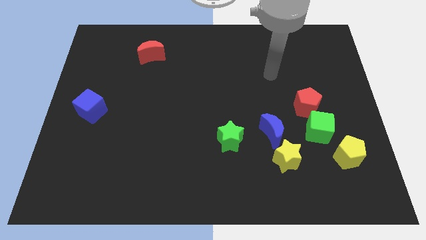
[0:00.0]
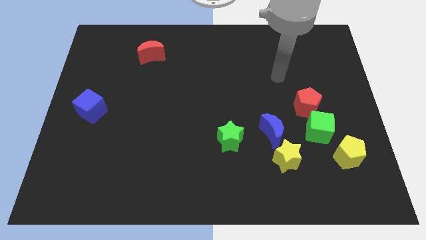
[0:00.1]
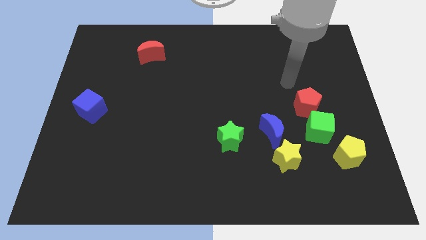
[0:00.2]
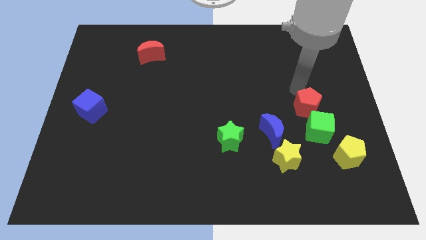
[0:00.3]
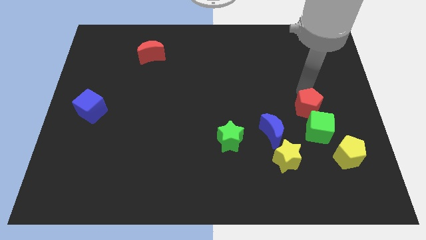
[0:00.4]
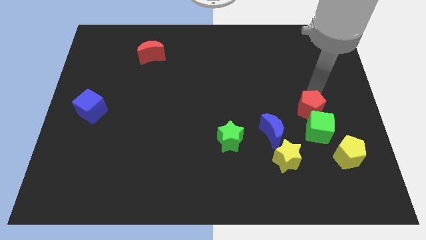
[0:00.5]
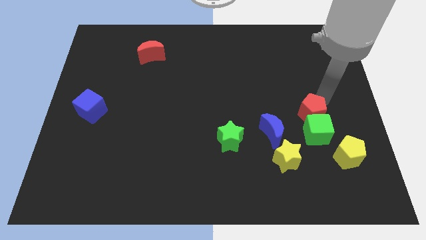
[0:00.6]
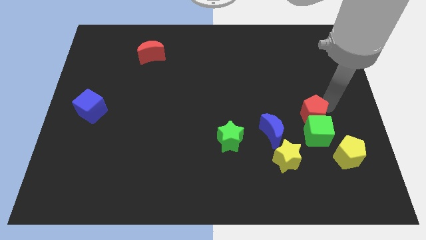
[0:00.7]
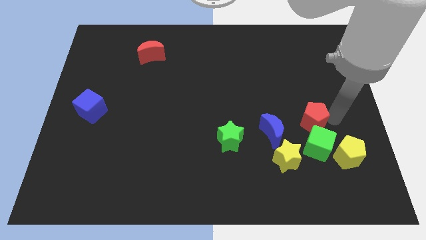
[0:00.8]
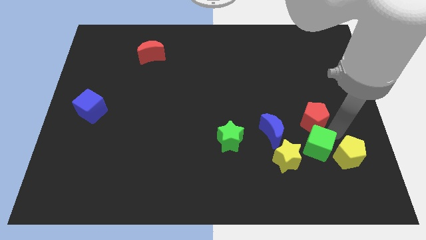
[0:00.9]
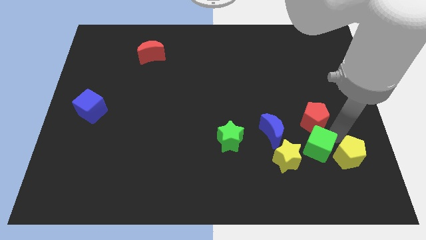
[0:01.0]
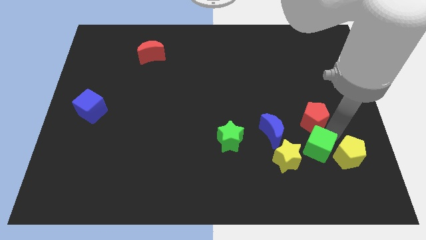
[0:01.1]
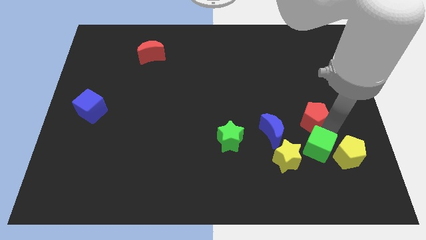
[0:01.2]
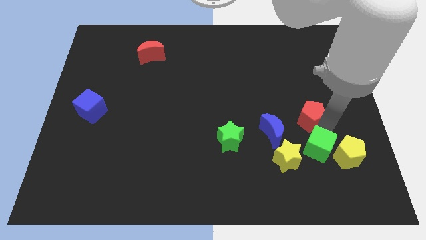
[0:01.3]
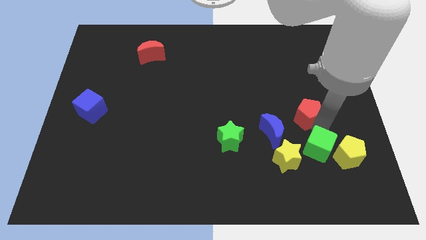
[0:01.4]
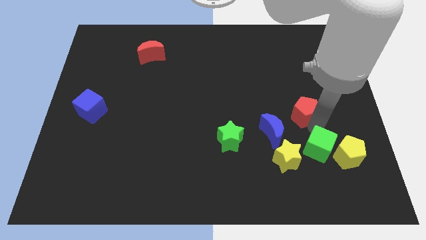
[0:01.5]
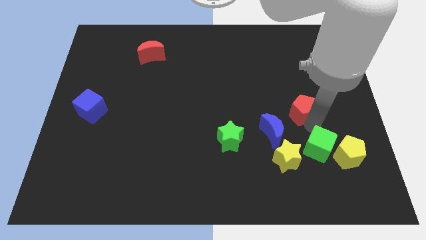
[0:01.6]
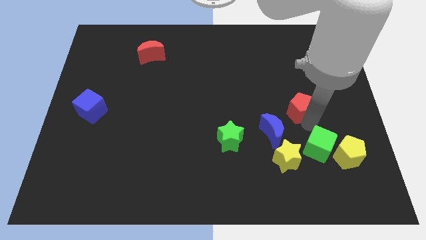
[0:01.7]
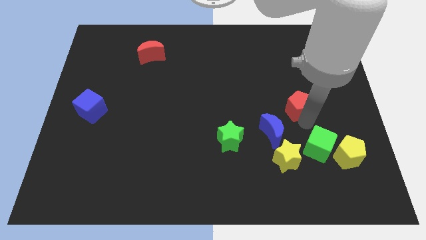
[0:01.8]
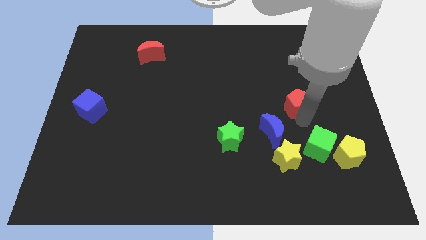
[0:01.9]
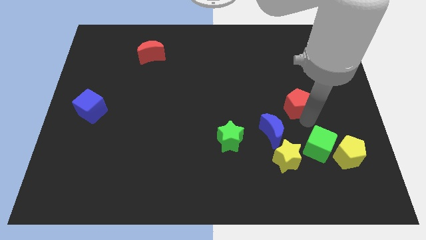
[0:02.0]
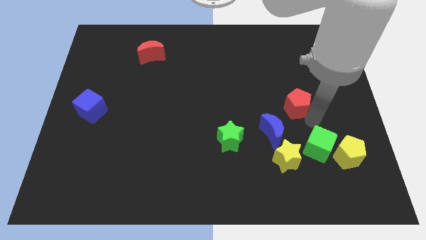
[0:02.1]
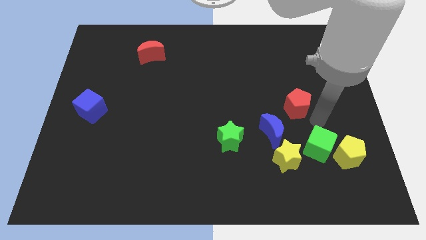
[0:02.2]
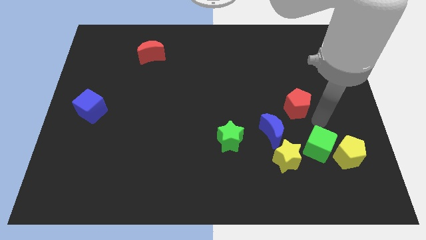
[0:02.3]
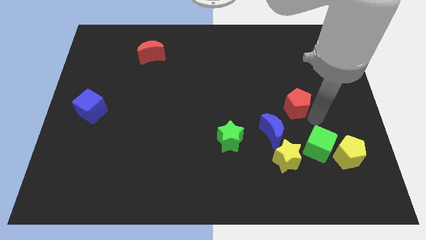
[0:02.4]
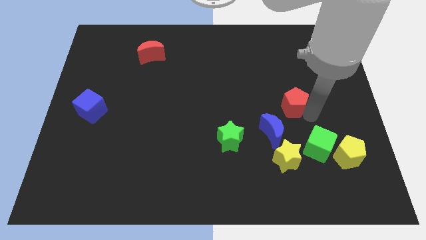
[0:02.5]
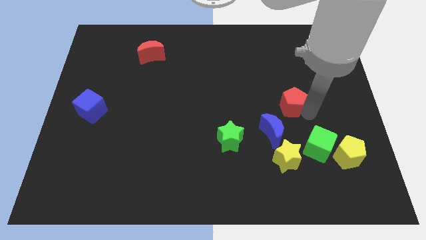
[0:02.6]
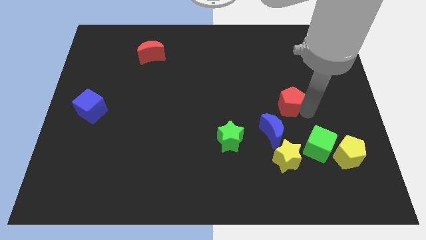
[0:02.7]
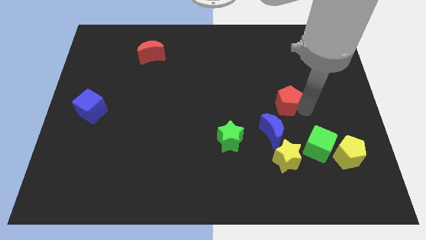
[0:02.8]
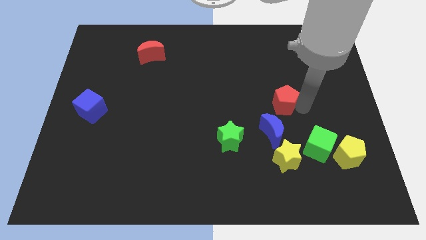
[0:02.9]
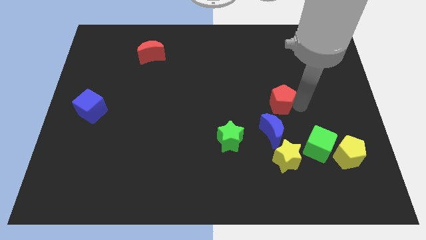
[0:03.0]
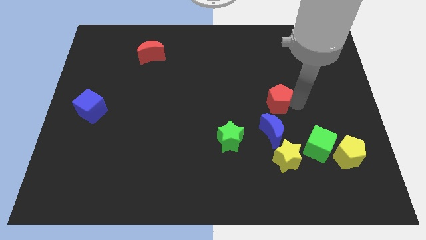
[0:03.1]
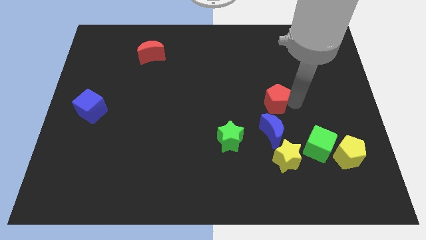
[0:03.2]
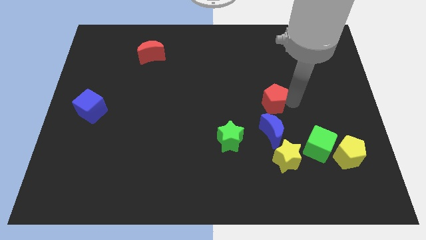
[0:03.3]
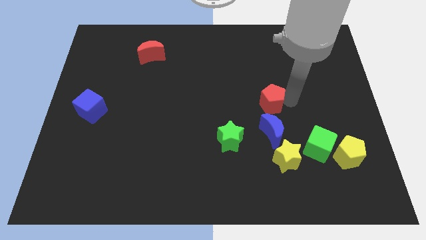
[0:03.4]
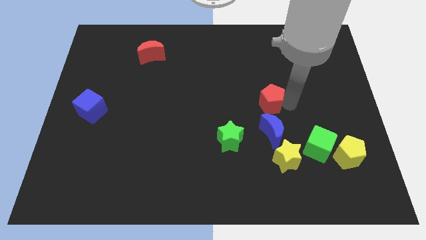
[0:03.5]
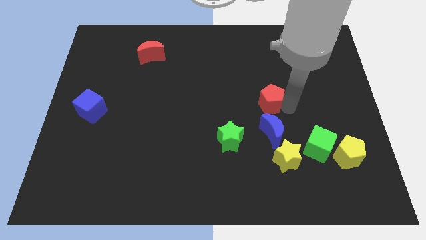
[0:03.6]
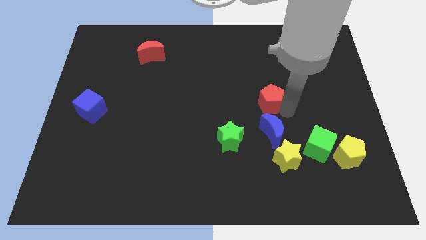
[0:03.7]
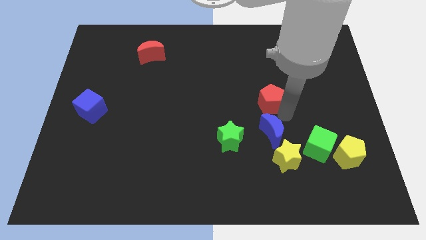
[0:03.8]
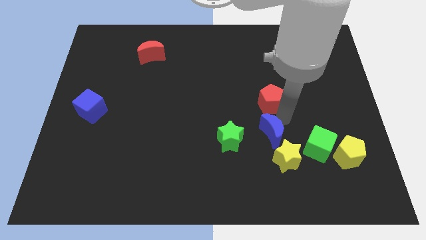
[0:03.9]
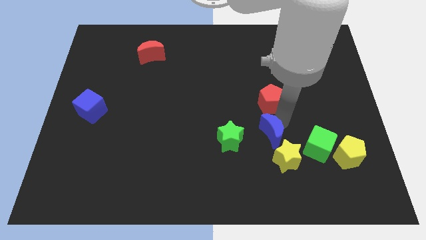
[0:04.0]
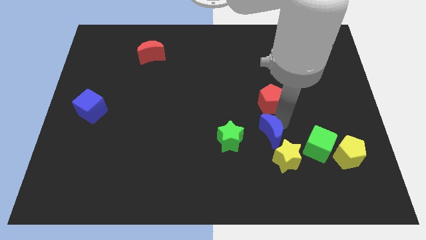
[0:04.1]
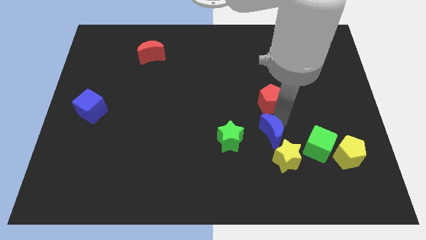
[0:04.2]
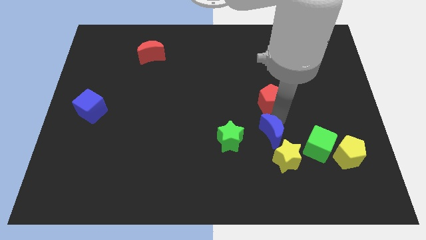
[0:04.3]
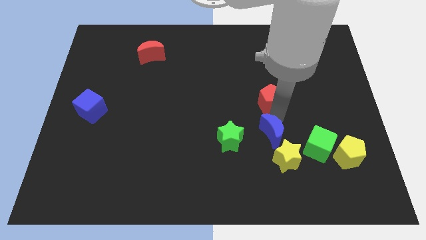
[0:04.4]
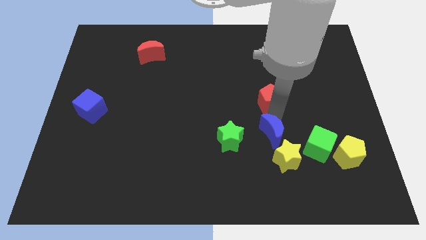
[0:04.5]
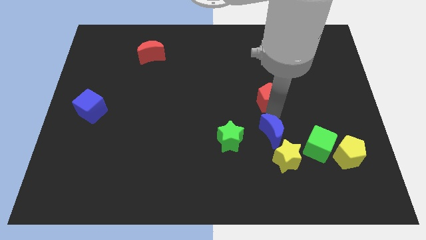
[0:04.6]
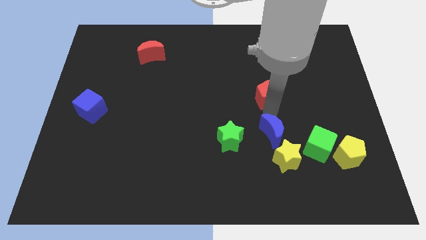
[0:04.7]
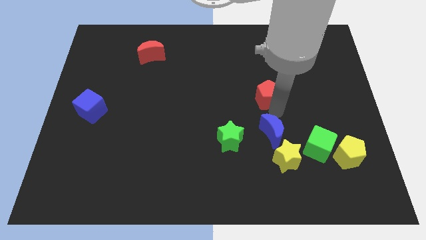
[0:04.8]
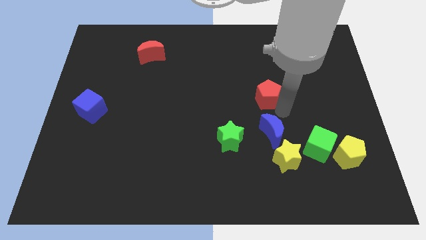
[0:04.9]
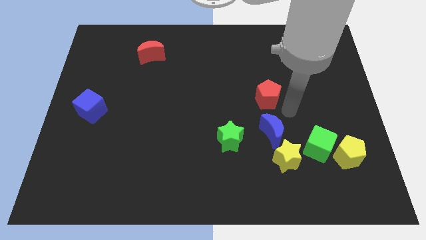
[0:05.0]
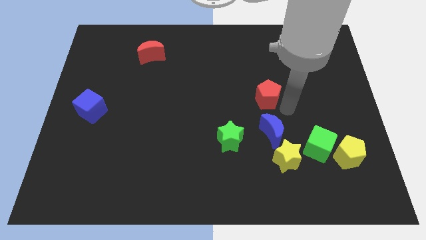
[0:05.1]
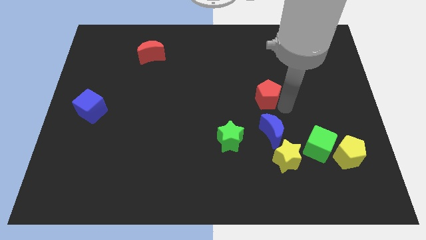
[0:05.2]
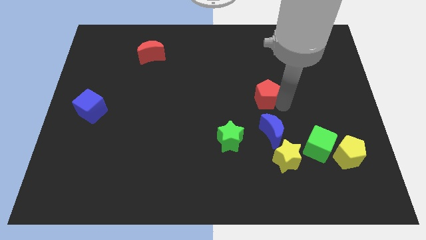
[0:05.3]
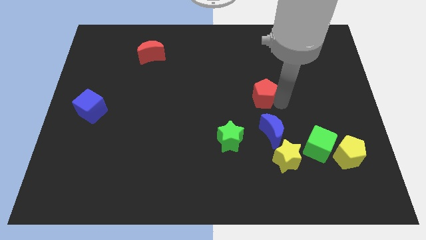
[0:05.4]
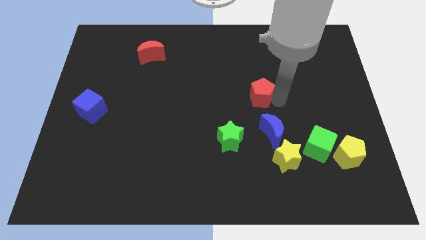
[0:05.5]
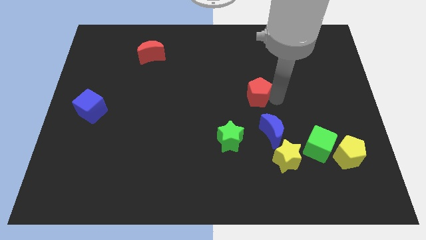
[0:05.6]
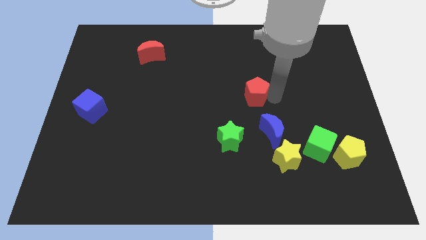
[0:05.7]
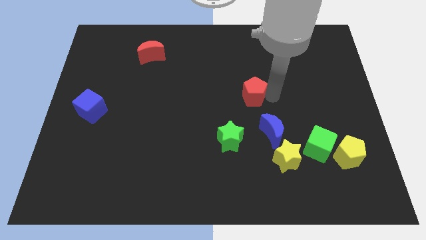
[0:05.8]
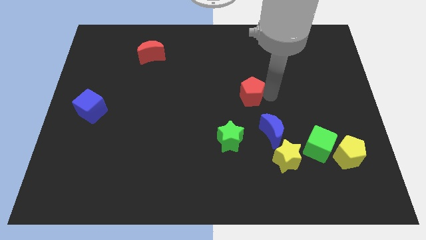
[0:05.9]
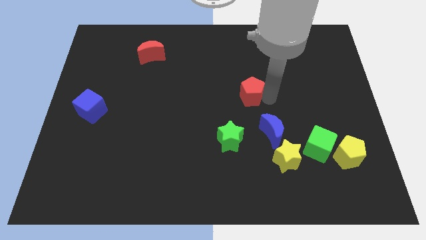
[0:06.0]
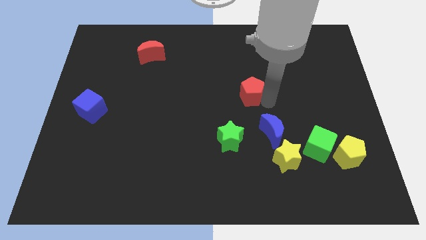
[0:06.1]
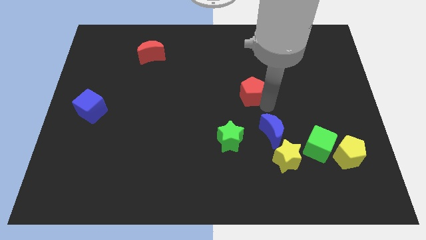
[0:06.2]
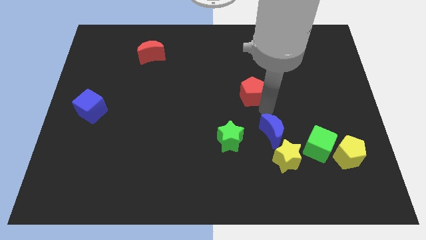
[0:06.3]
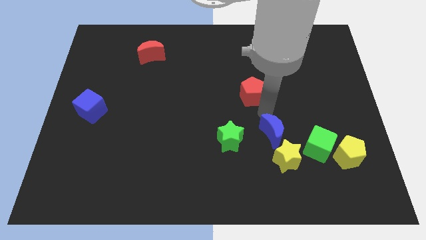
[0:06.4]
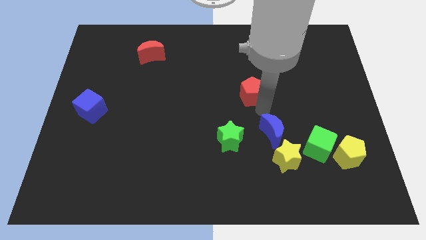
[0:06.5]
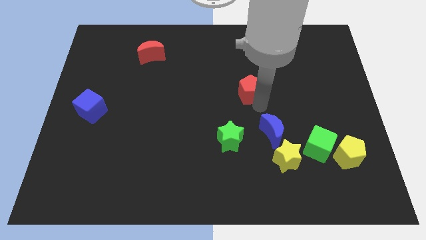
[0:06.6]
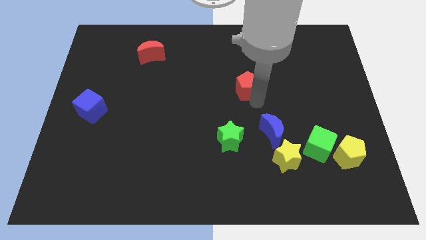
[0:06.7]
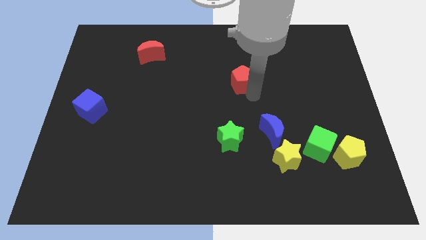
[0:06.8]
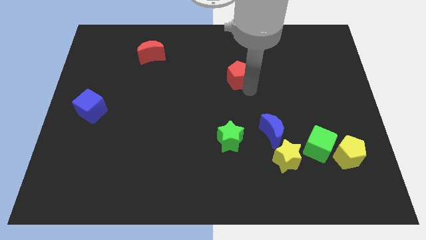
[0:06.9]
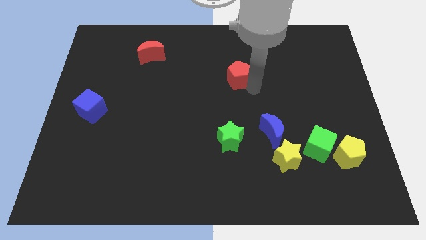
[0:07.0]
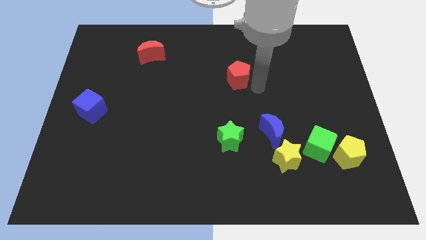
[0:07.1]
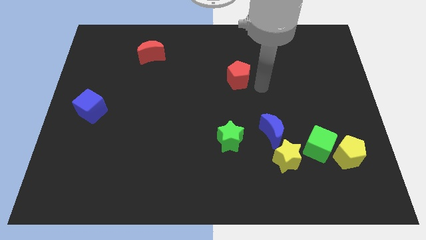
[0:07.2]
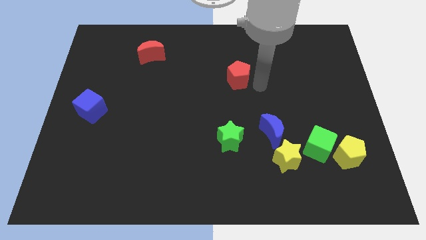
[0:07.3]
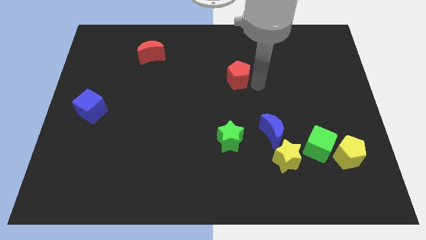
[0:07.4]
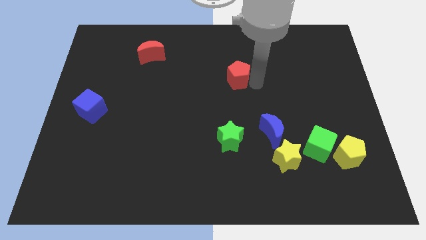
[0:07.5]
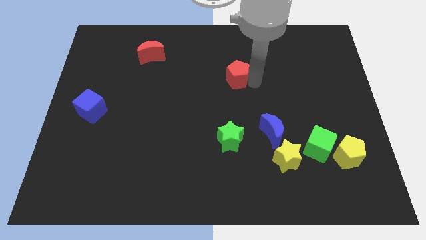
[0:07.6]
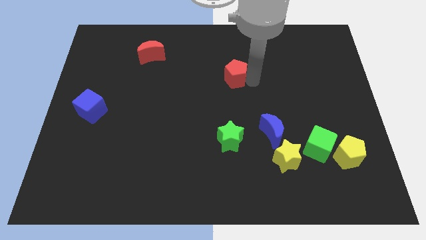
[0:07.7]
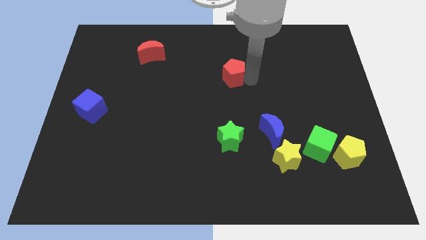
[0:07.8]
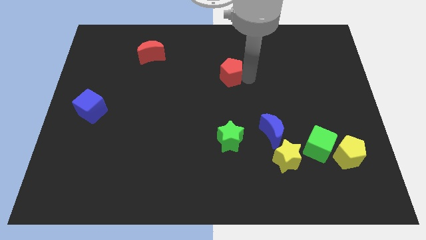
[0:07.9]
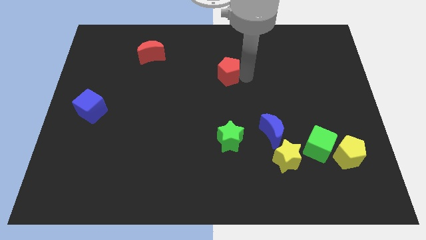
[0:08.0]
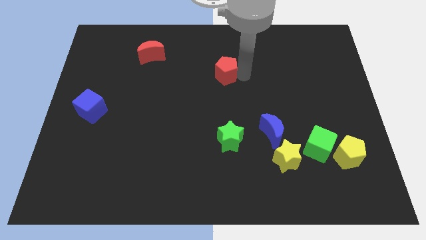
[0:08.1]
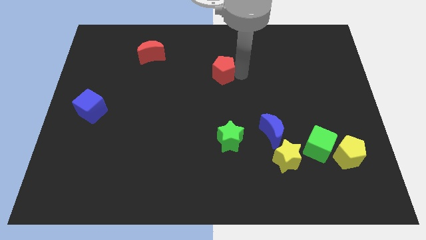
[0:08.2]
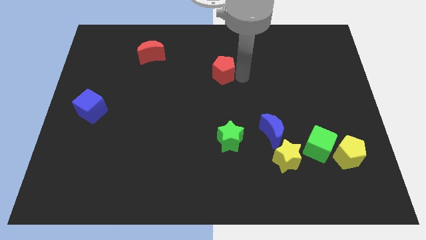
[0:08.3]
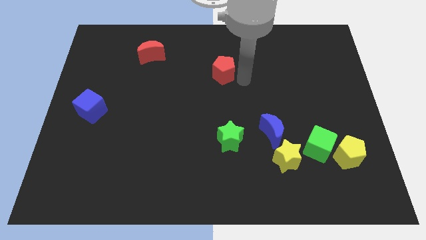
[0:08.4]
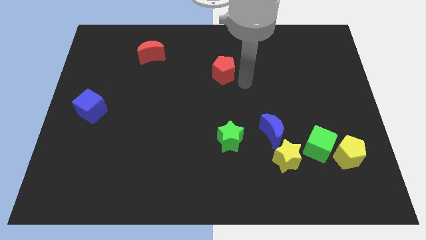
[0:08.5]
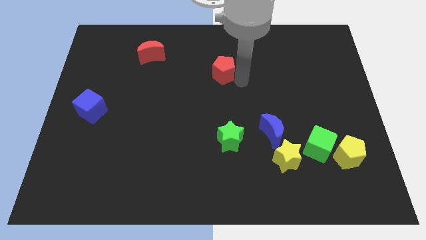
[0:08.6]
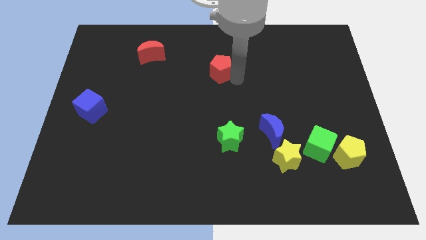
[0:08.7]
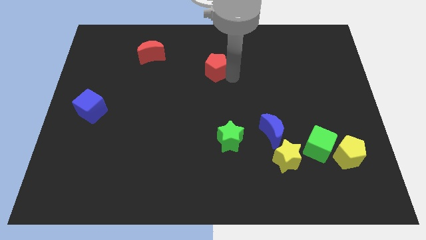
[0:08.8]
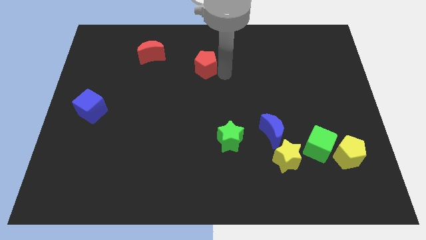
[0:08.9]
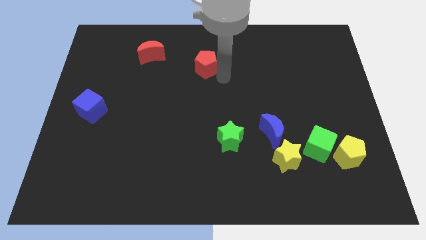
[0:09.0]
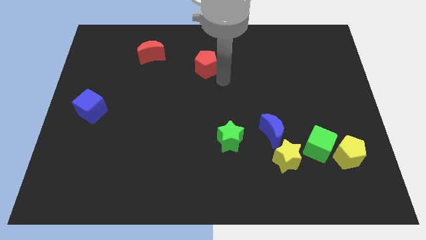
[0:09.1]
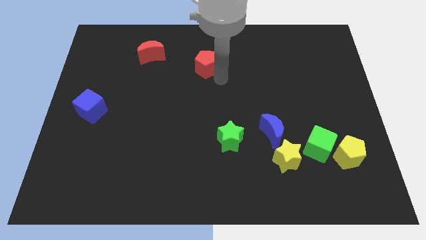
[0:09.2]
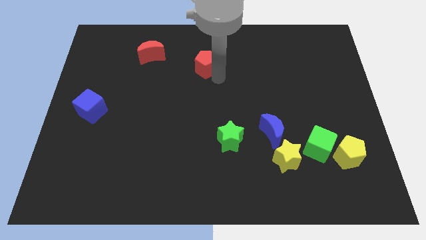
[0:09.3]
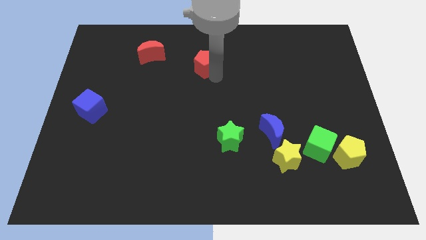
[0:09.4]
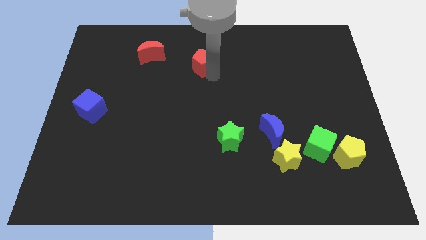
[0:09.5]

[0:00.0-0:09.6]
slide the red pentagon just right of the red moon
